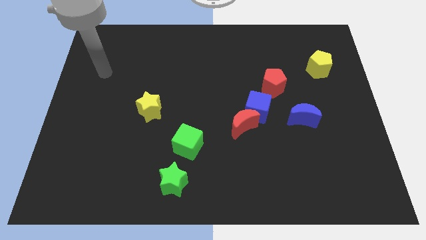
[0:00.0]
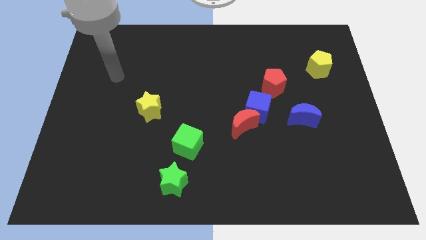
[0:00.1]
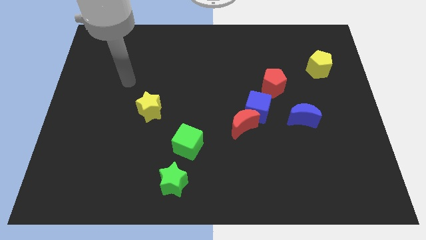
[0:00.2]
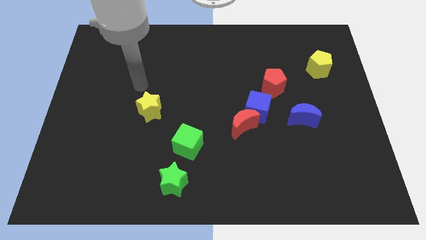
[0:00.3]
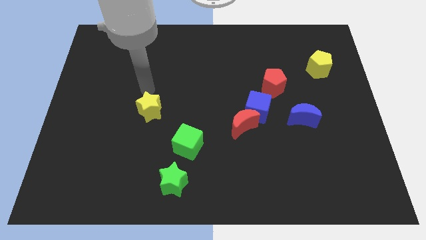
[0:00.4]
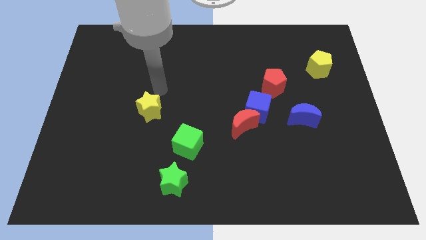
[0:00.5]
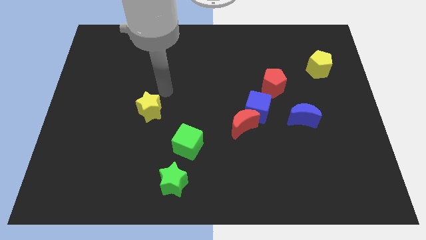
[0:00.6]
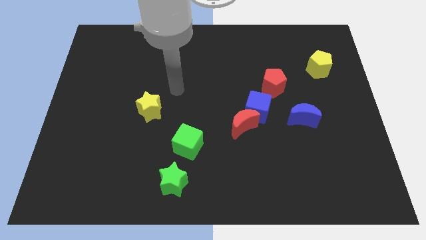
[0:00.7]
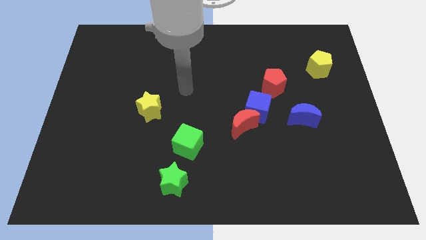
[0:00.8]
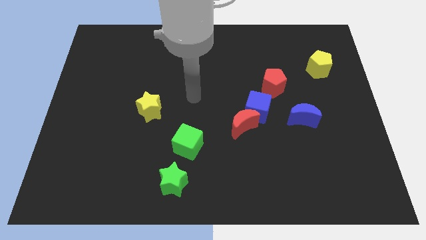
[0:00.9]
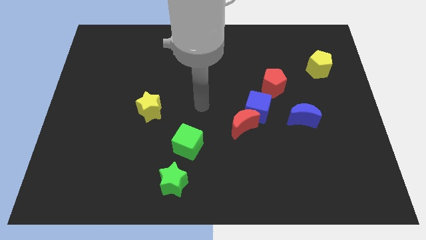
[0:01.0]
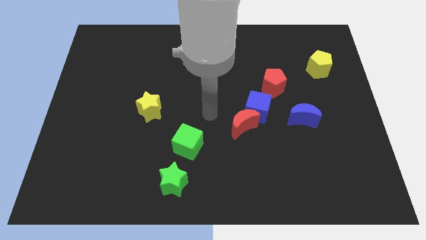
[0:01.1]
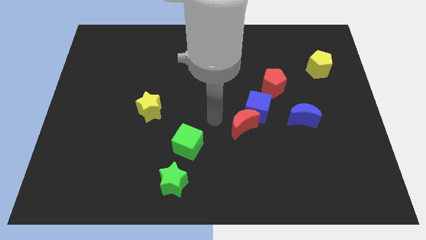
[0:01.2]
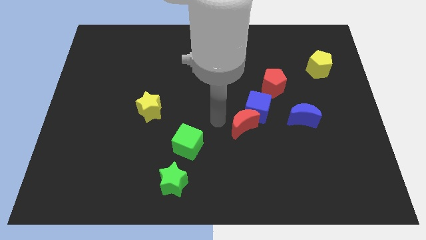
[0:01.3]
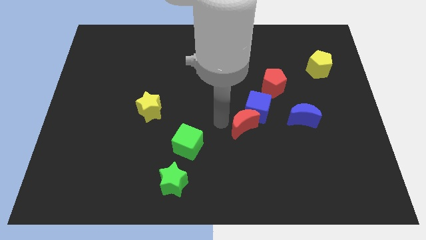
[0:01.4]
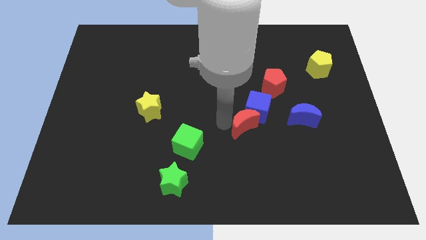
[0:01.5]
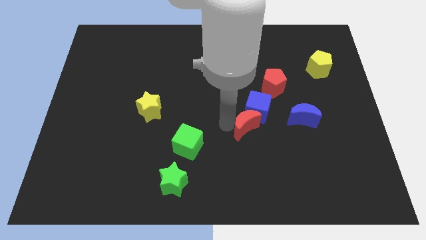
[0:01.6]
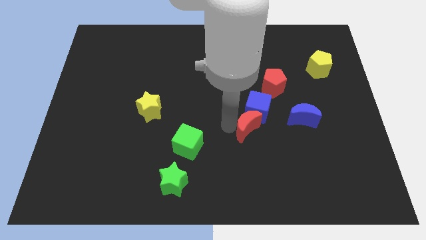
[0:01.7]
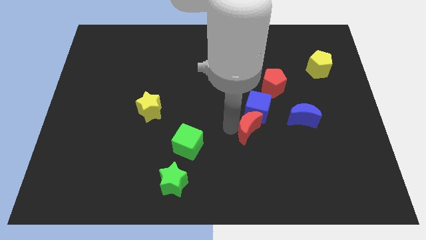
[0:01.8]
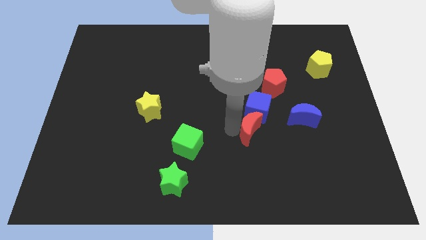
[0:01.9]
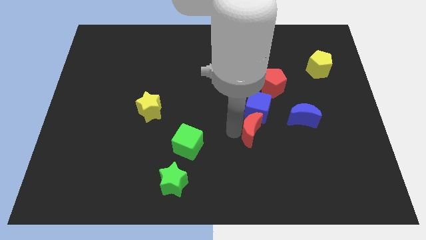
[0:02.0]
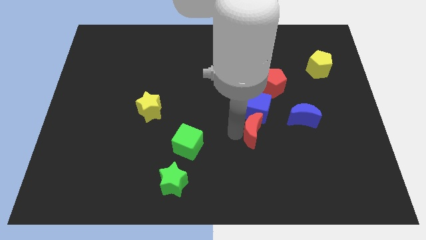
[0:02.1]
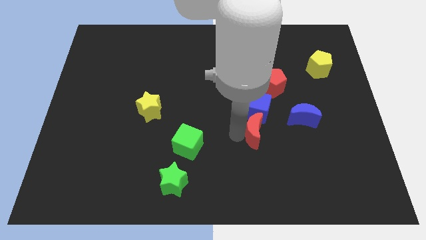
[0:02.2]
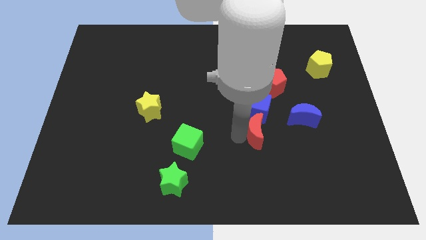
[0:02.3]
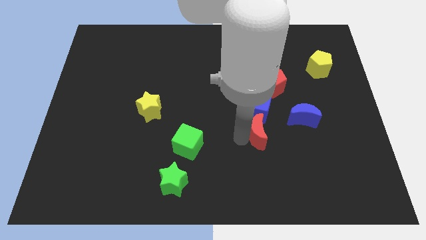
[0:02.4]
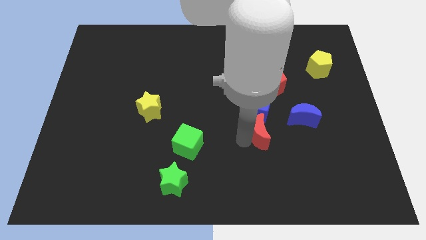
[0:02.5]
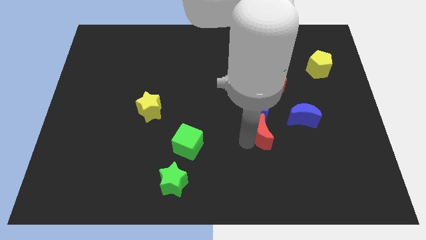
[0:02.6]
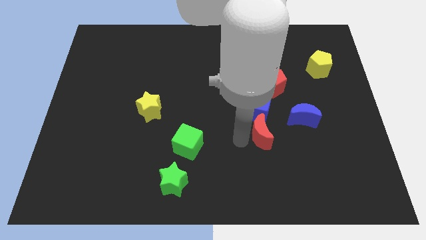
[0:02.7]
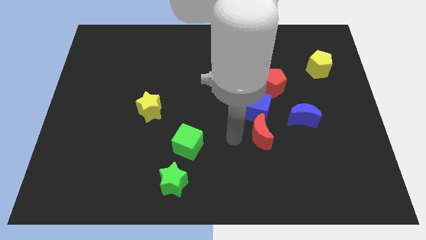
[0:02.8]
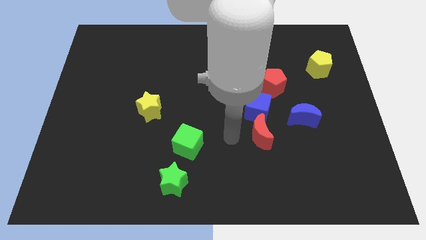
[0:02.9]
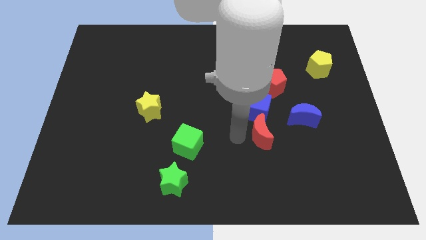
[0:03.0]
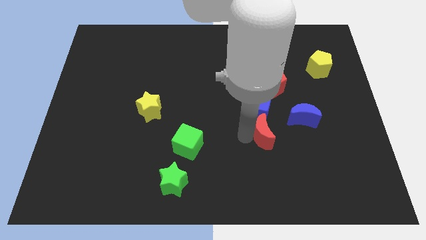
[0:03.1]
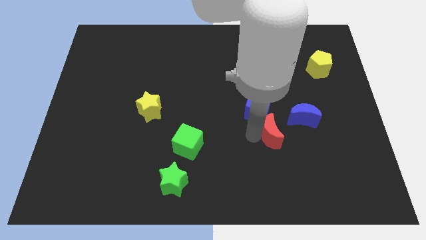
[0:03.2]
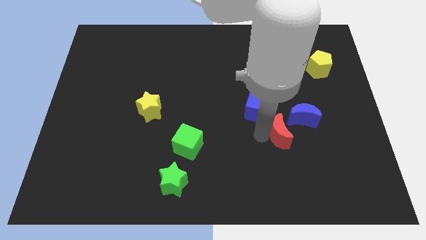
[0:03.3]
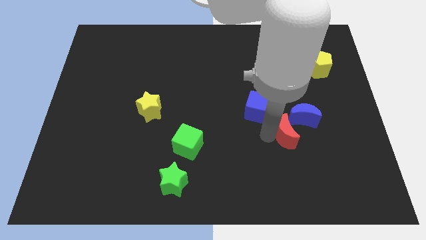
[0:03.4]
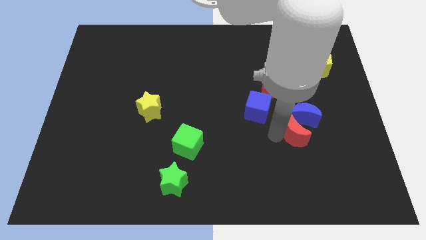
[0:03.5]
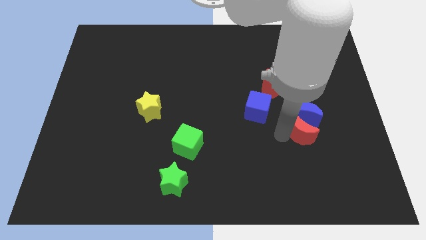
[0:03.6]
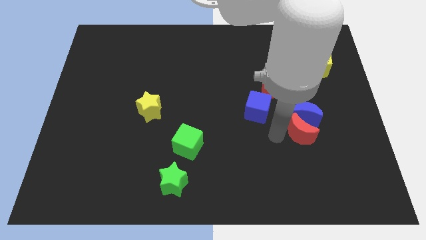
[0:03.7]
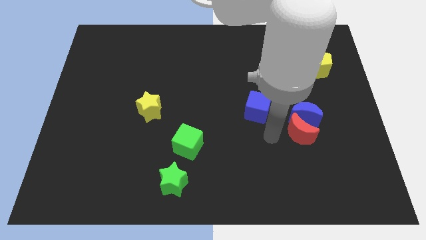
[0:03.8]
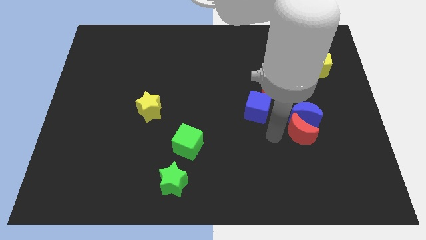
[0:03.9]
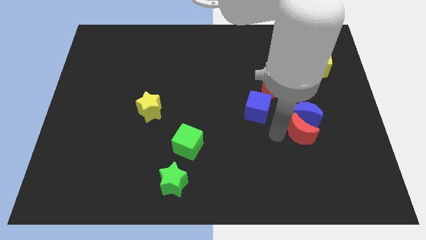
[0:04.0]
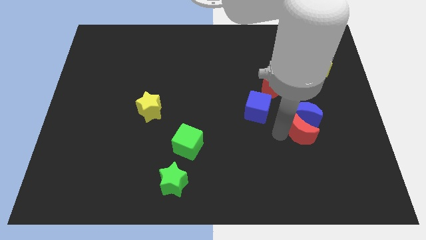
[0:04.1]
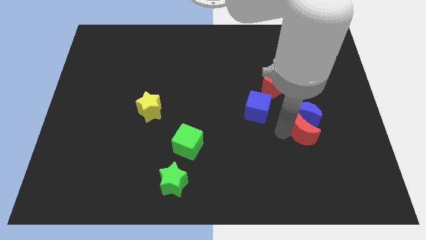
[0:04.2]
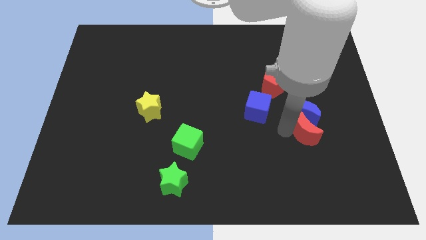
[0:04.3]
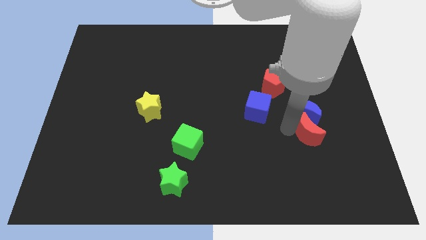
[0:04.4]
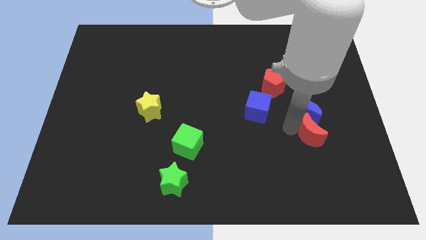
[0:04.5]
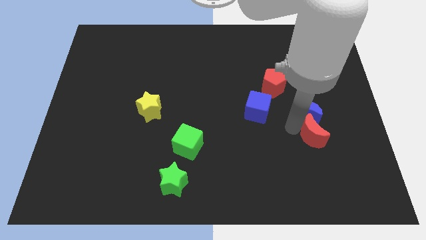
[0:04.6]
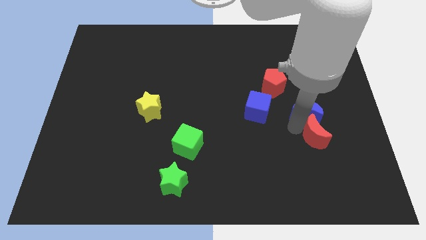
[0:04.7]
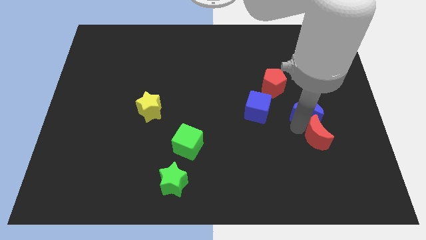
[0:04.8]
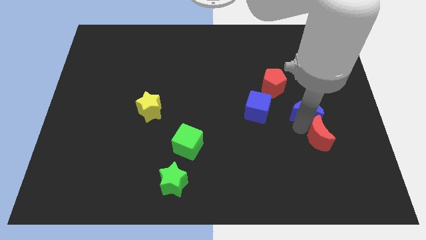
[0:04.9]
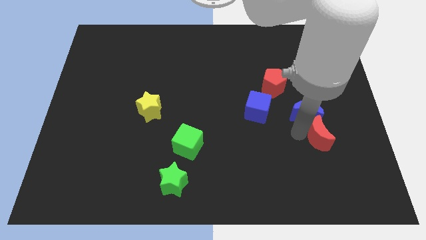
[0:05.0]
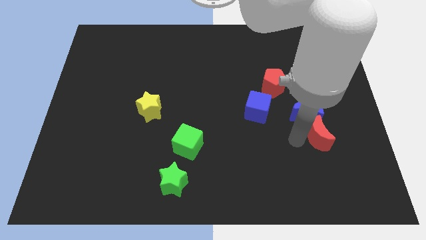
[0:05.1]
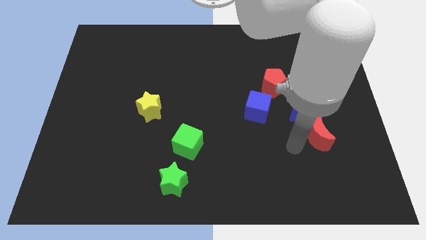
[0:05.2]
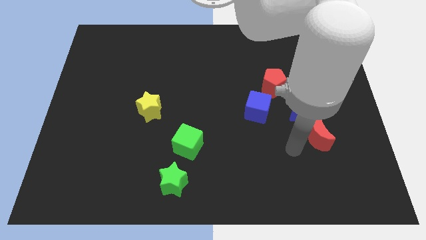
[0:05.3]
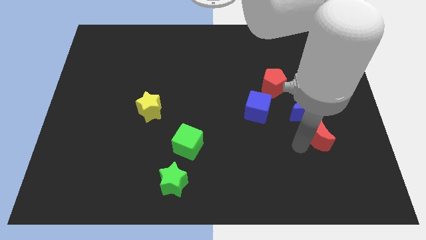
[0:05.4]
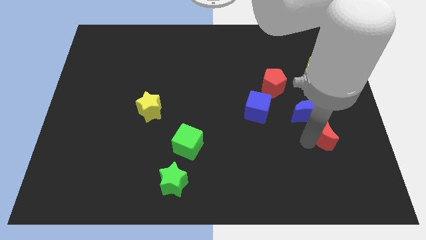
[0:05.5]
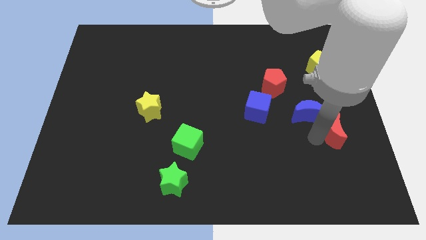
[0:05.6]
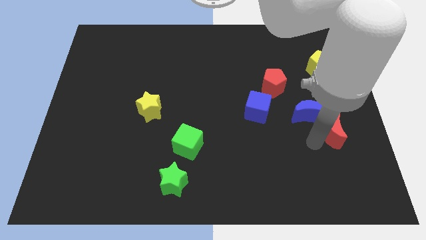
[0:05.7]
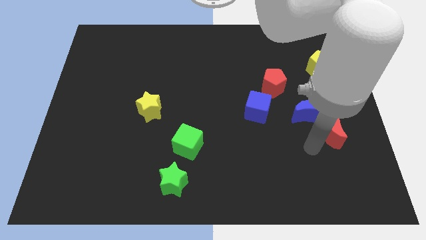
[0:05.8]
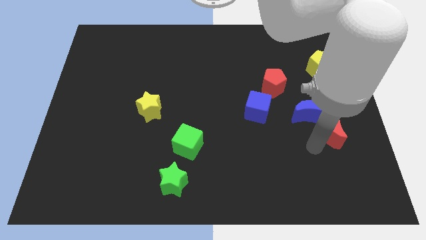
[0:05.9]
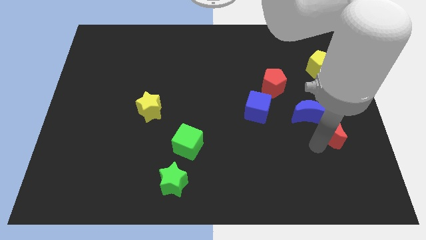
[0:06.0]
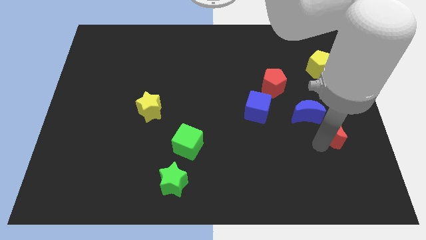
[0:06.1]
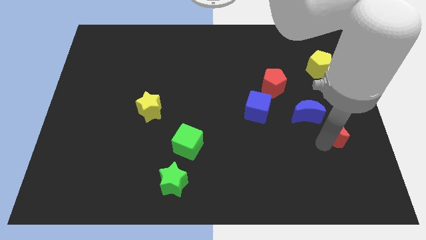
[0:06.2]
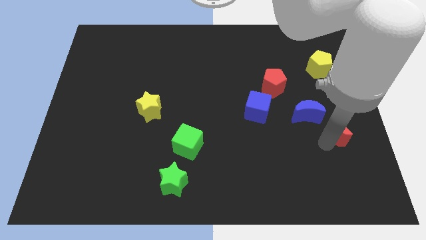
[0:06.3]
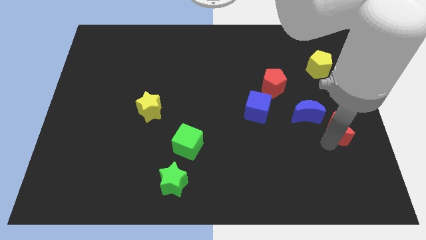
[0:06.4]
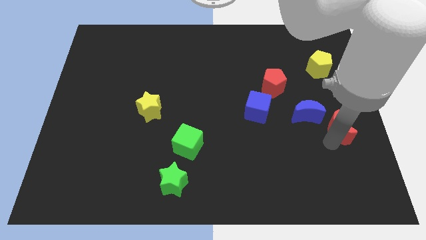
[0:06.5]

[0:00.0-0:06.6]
push the red moon to the center right
